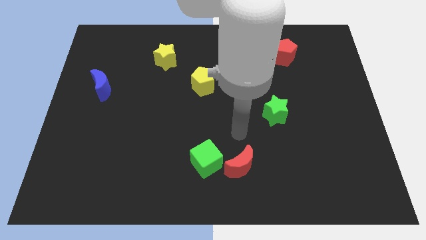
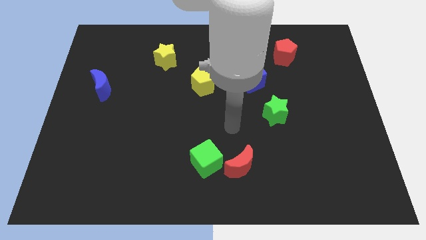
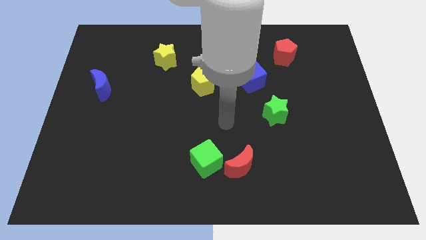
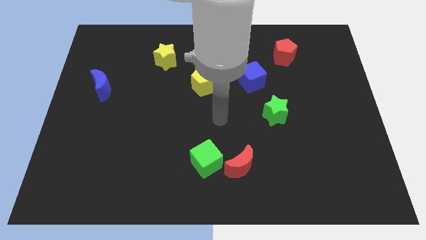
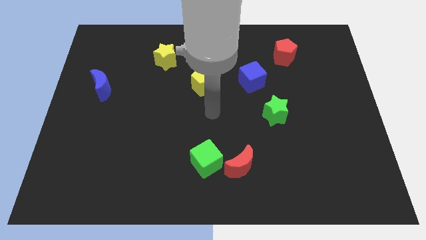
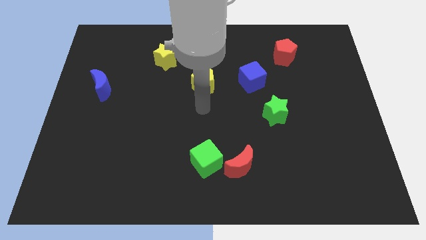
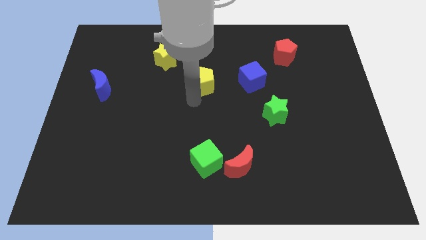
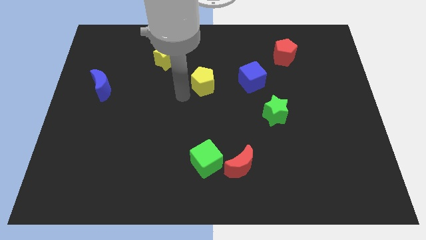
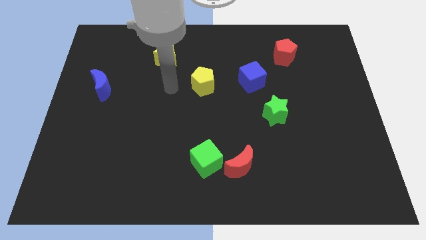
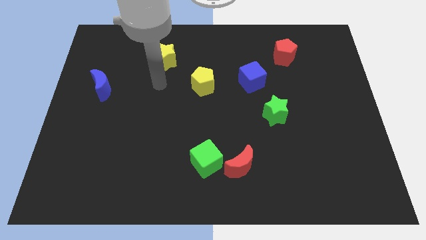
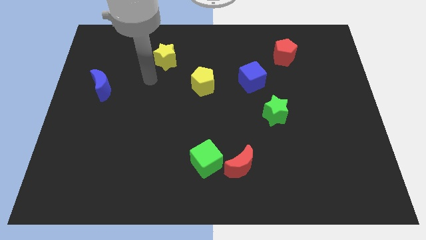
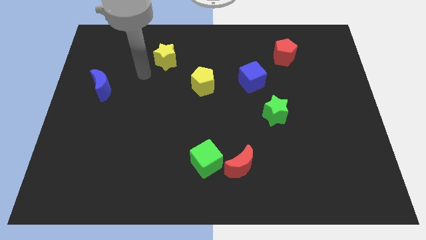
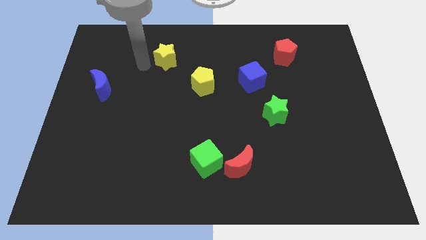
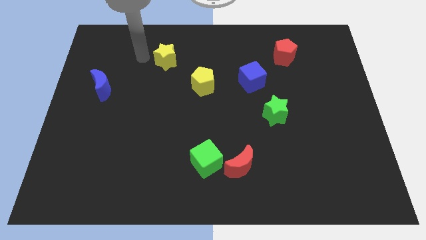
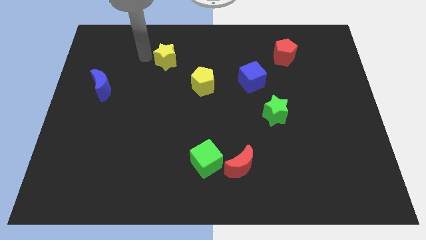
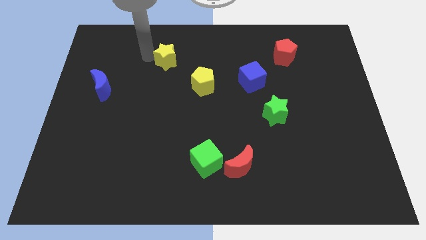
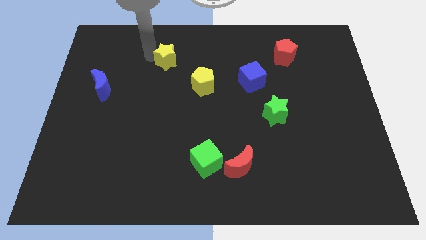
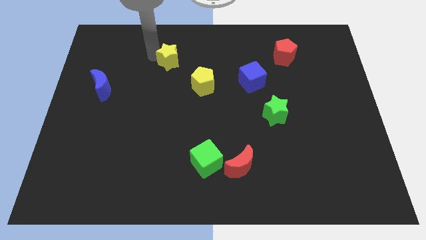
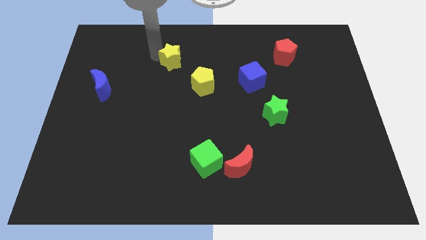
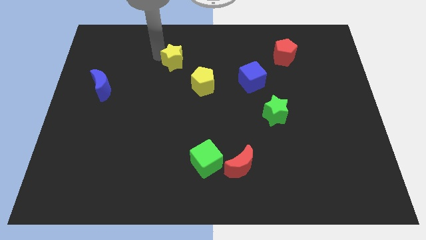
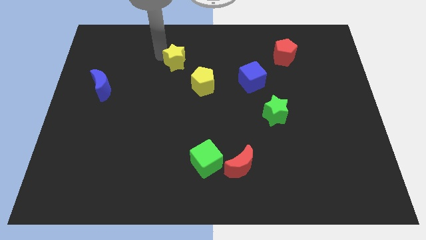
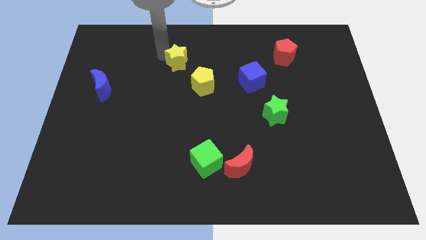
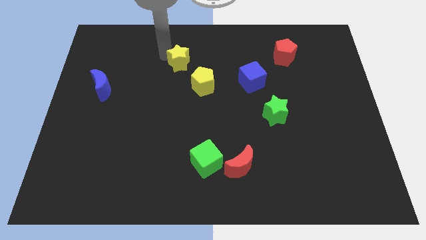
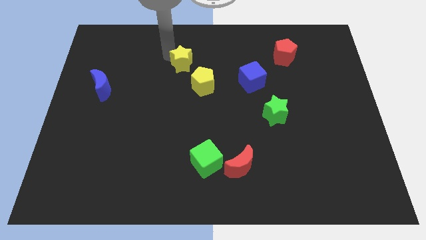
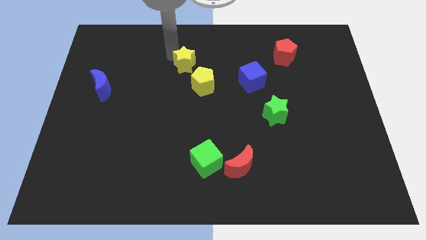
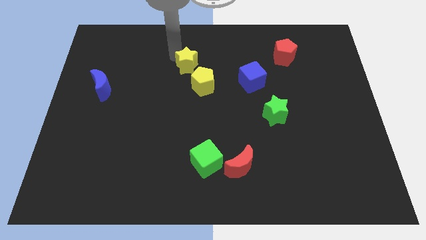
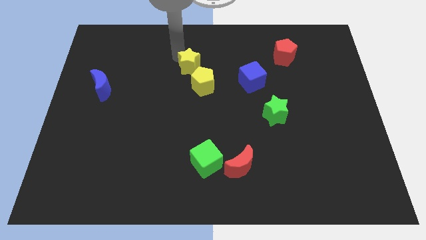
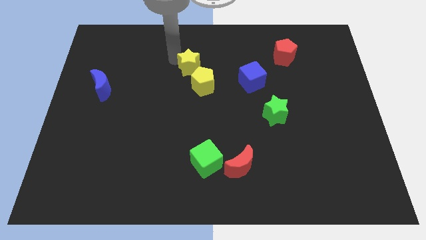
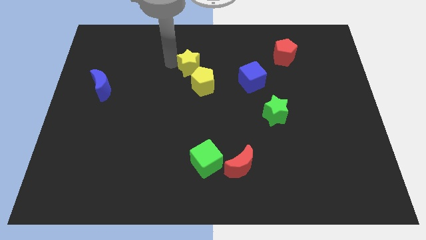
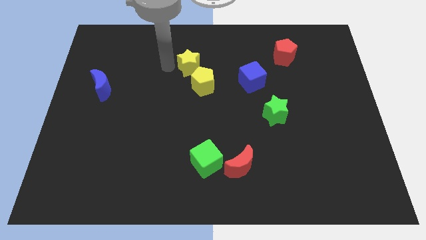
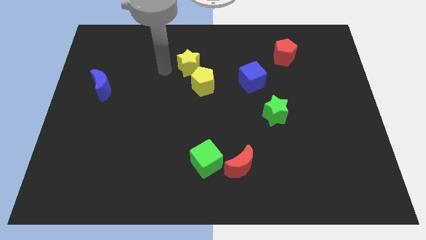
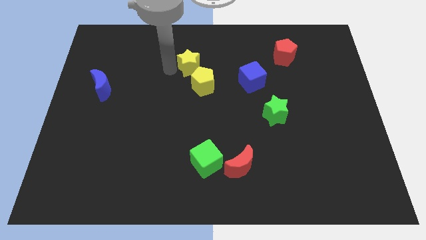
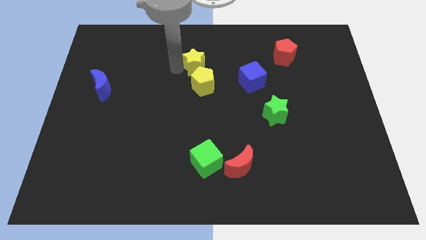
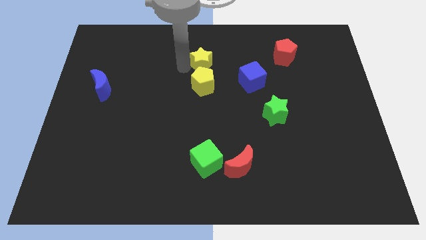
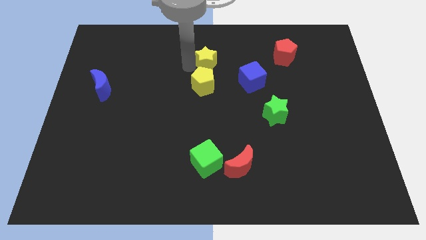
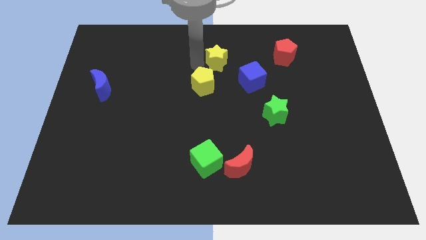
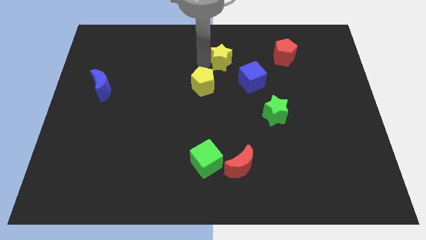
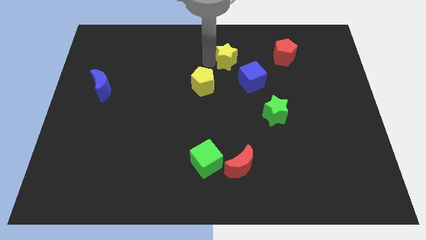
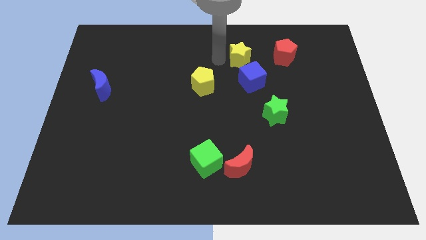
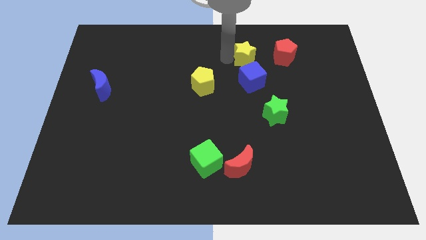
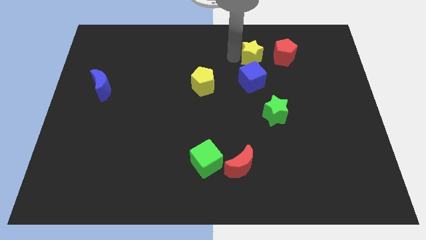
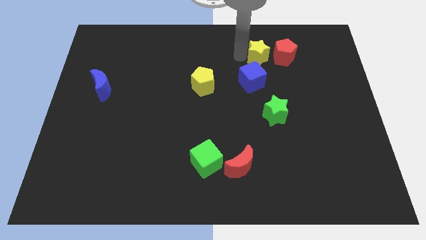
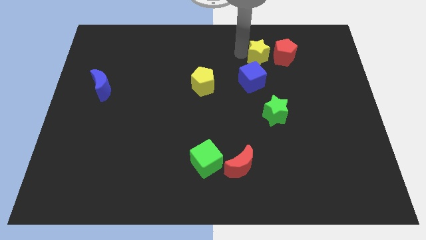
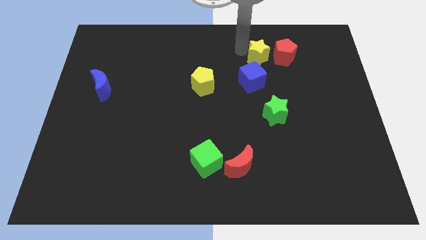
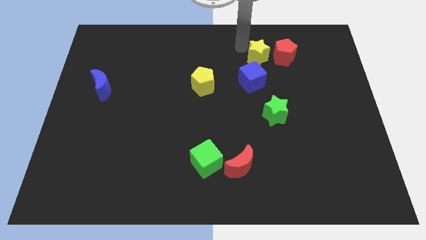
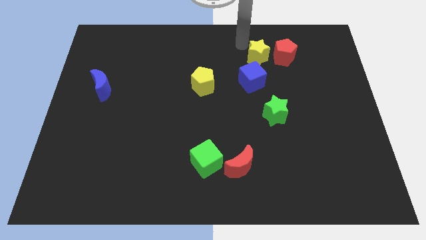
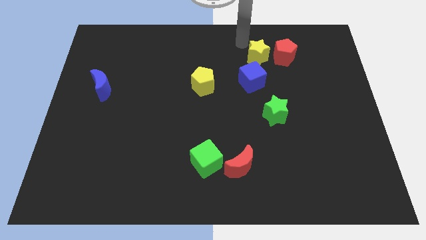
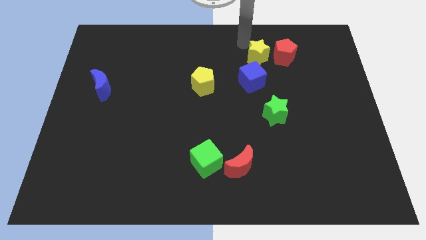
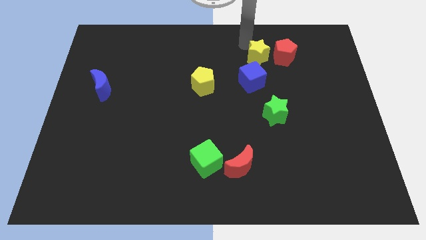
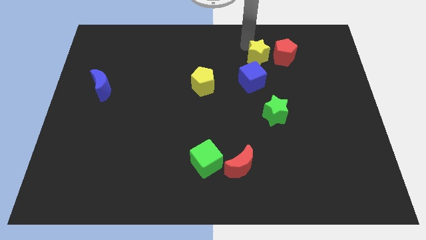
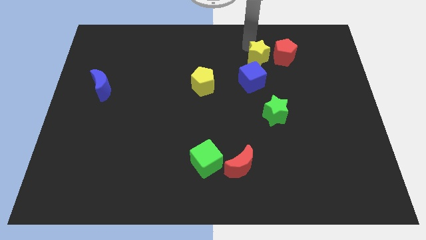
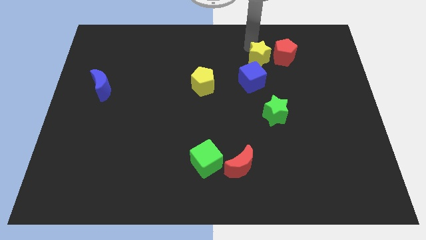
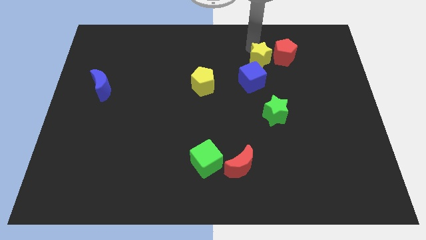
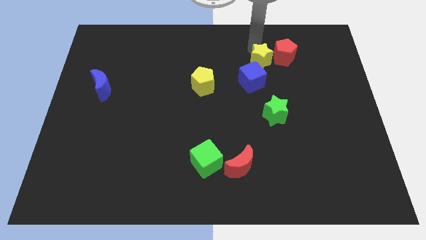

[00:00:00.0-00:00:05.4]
push the yellow star towards the red pentagon

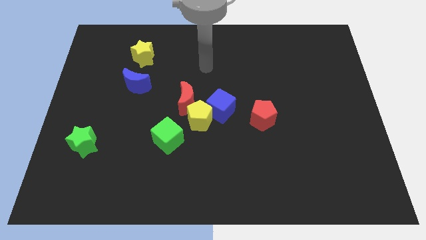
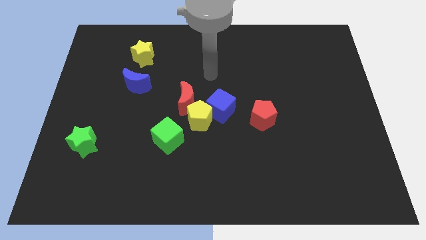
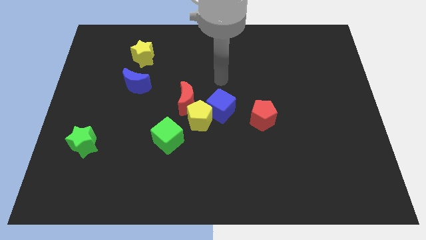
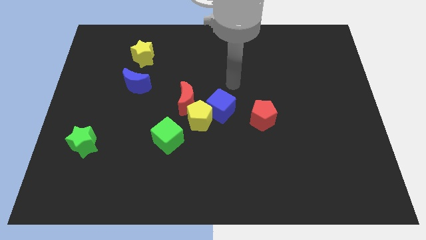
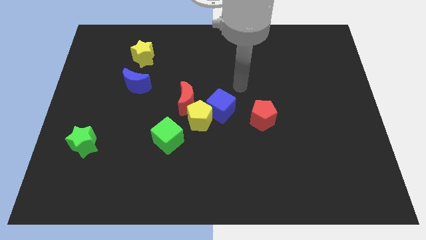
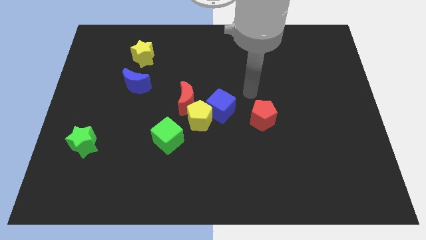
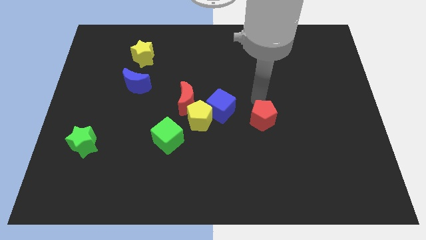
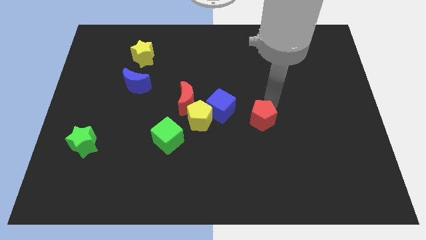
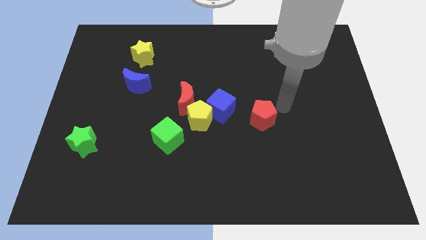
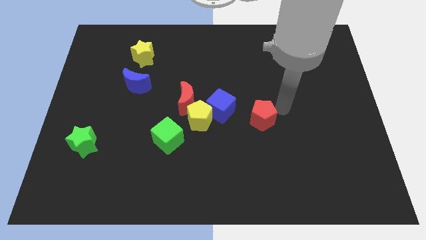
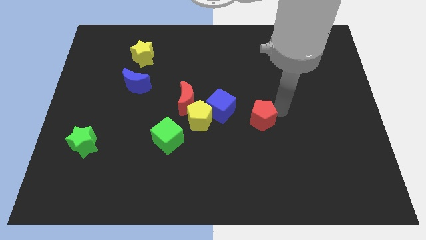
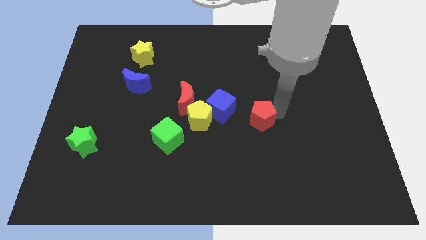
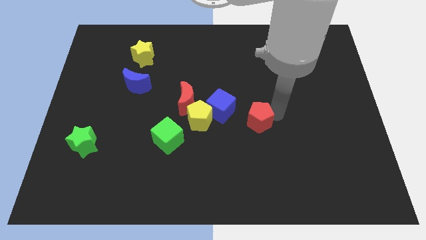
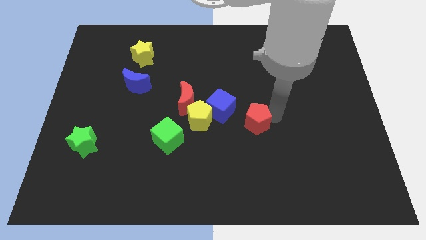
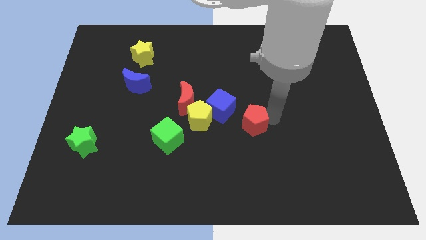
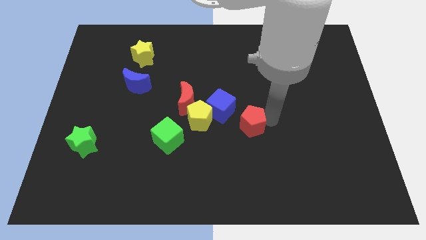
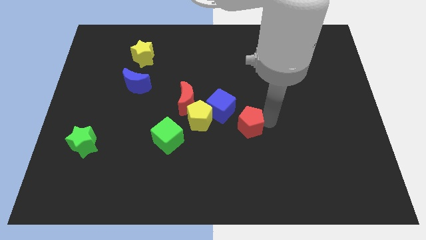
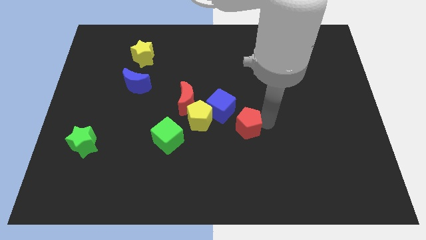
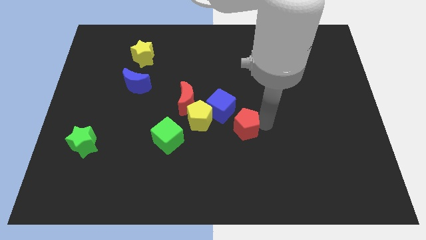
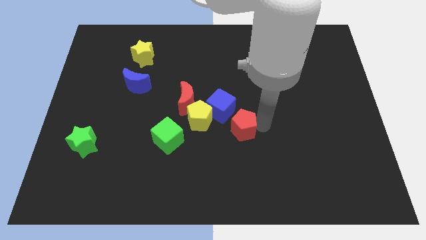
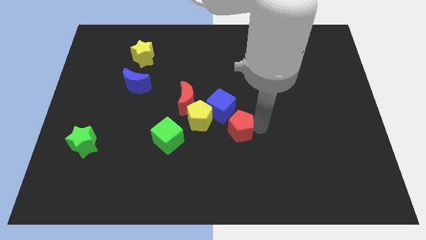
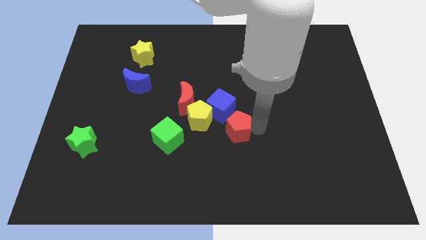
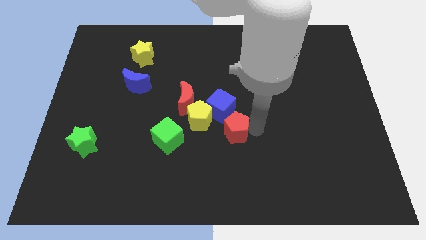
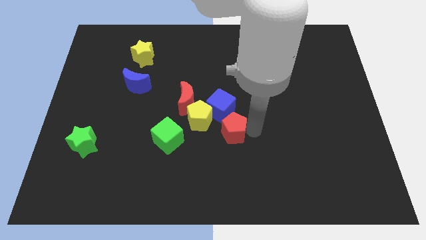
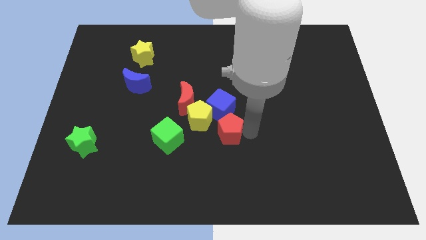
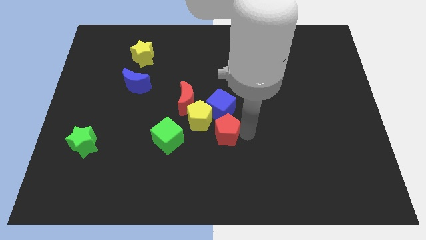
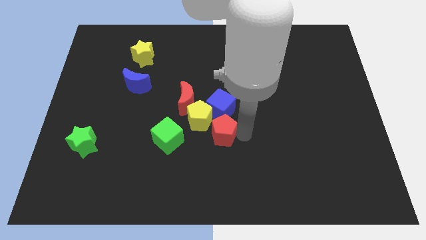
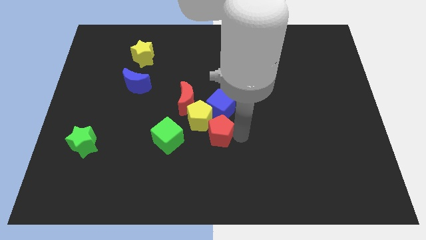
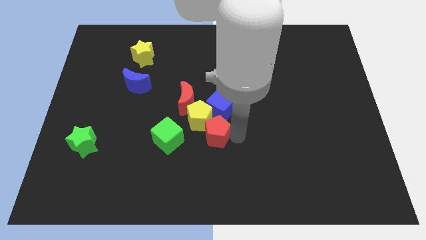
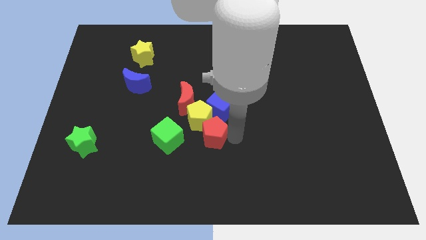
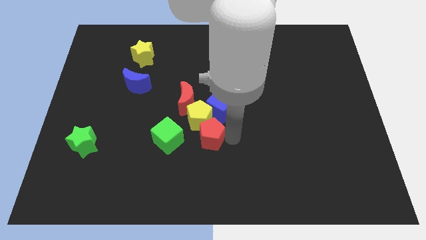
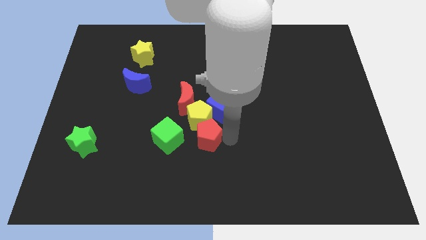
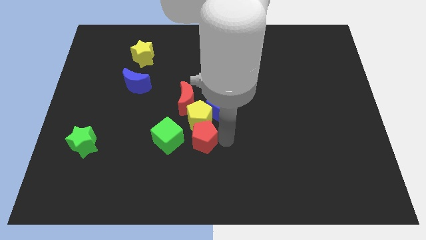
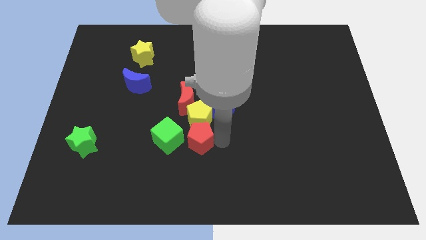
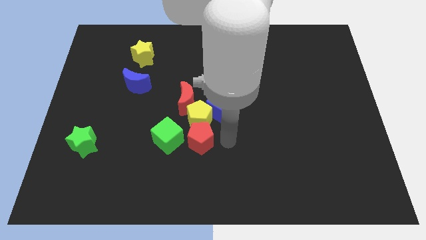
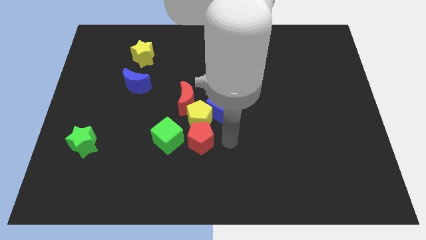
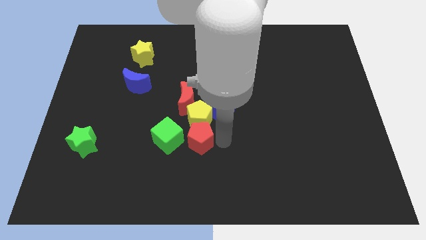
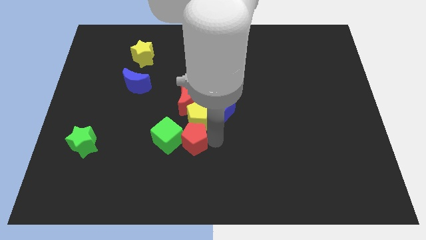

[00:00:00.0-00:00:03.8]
push the red pentagon to the green cube
